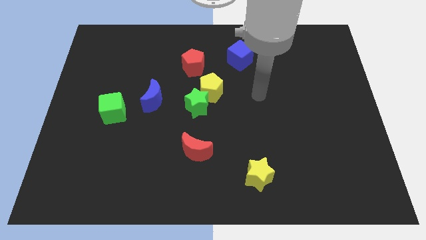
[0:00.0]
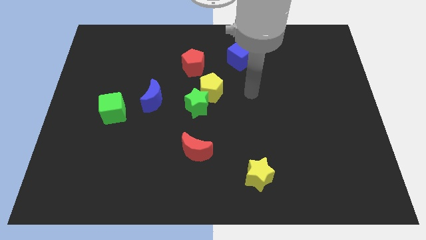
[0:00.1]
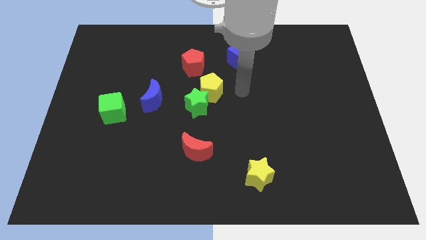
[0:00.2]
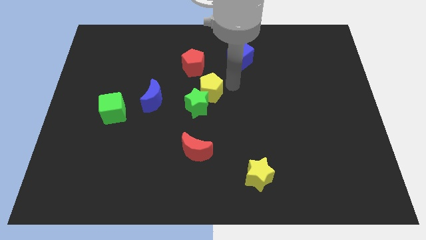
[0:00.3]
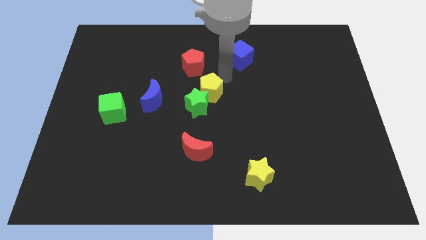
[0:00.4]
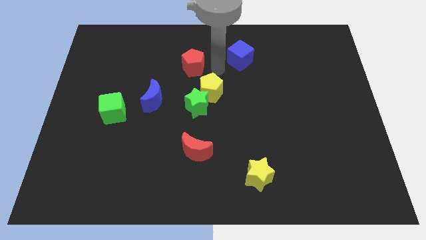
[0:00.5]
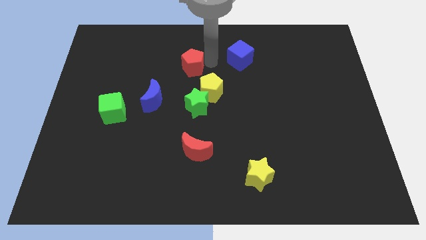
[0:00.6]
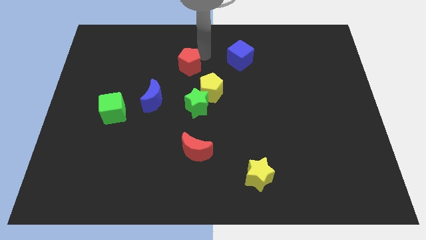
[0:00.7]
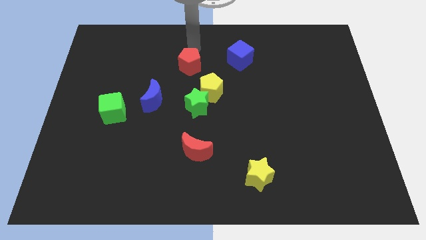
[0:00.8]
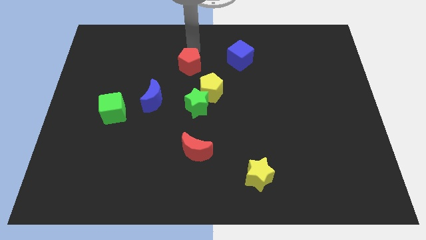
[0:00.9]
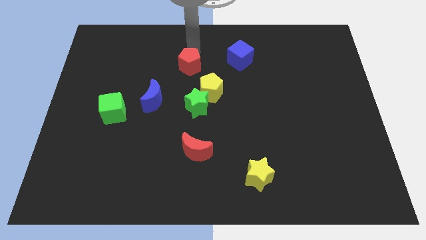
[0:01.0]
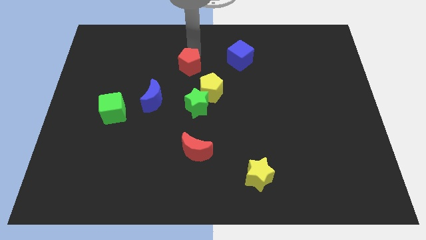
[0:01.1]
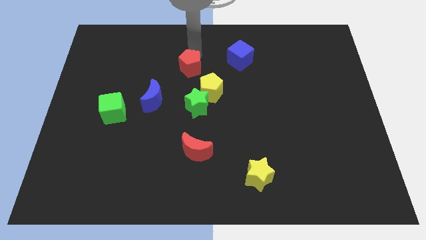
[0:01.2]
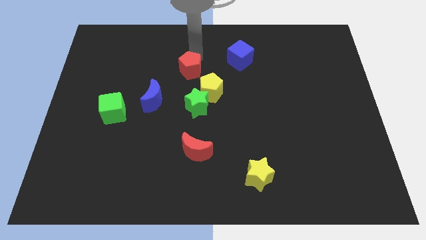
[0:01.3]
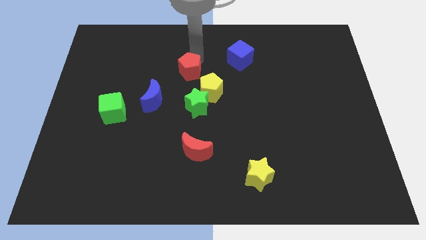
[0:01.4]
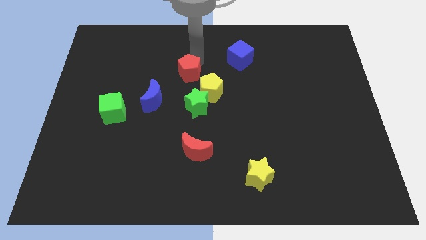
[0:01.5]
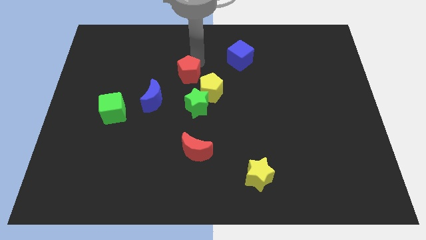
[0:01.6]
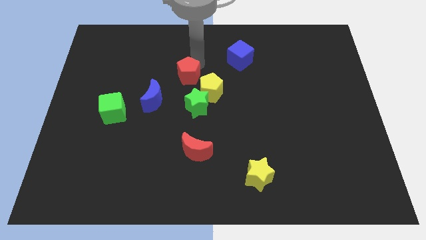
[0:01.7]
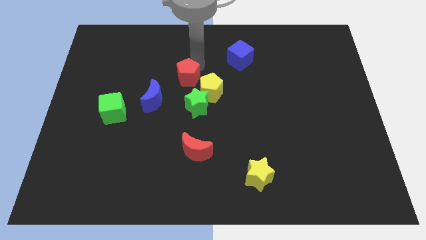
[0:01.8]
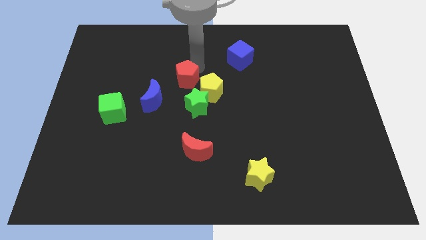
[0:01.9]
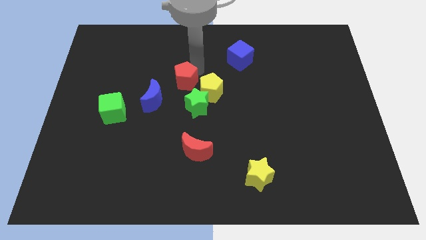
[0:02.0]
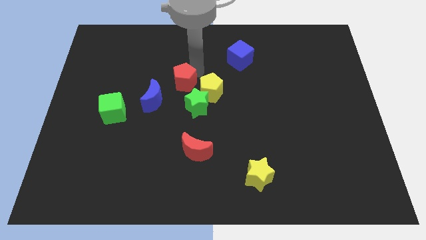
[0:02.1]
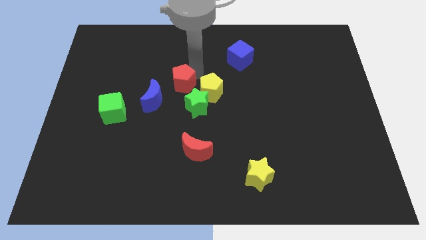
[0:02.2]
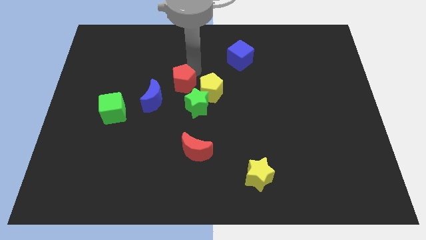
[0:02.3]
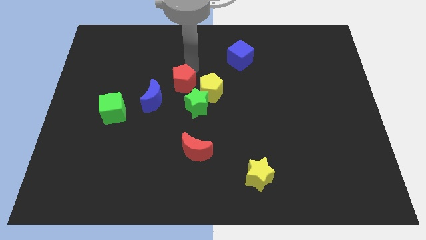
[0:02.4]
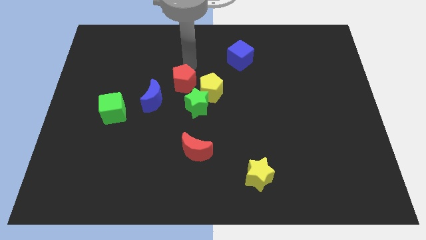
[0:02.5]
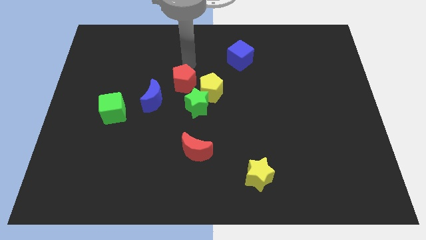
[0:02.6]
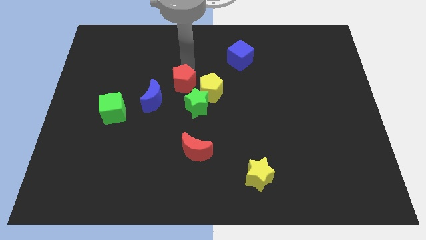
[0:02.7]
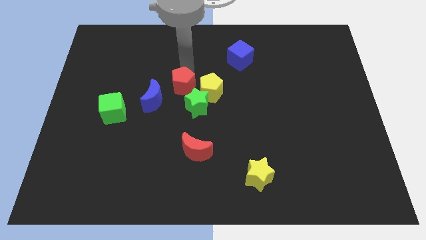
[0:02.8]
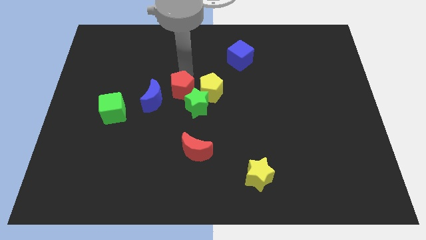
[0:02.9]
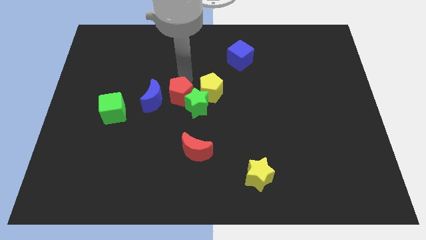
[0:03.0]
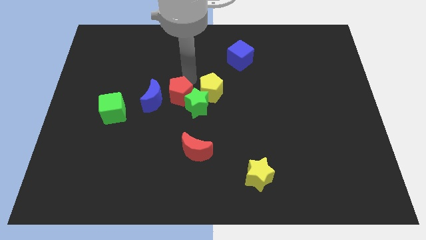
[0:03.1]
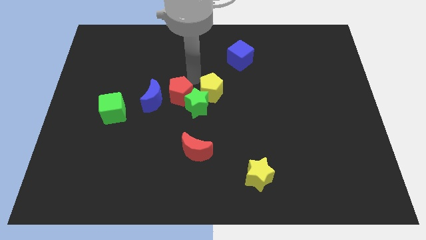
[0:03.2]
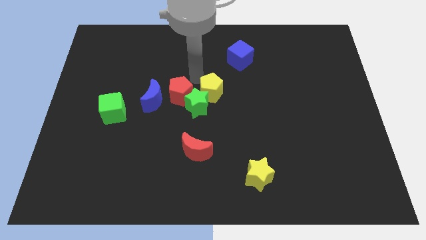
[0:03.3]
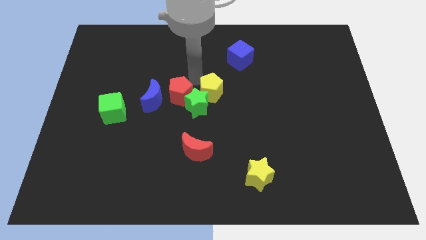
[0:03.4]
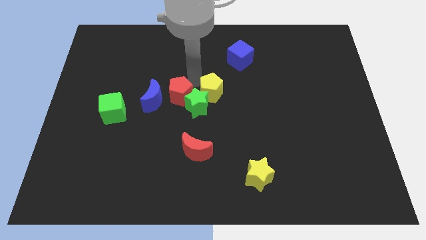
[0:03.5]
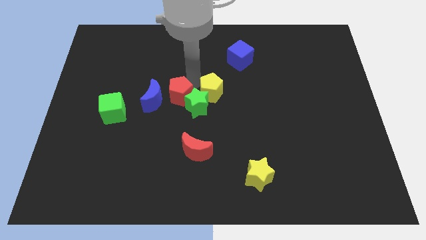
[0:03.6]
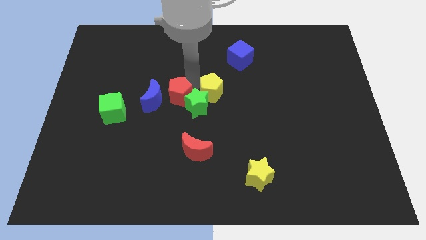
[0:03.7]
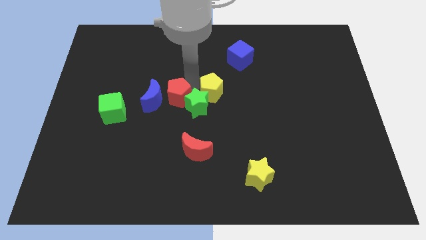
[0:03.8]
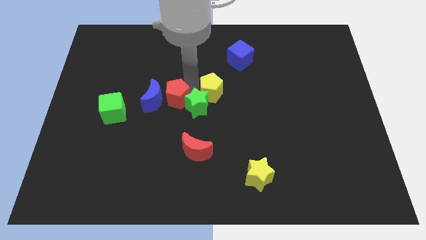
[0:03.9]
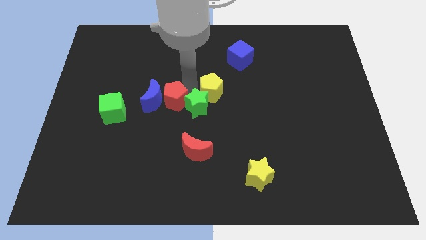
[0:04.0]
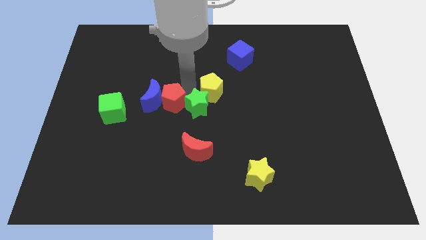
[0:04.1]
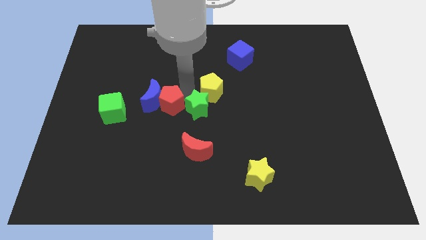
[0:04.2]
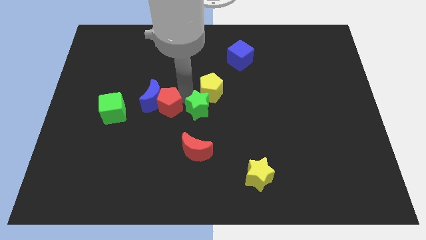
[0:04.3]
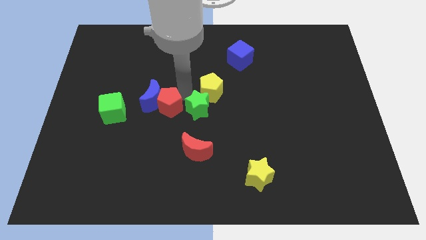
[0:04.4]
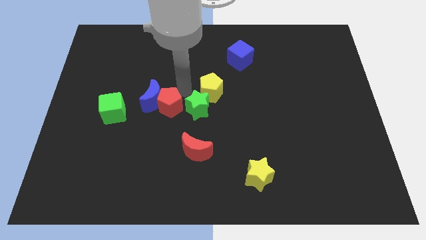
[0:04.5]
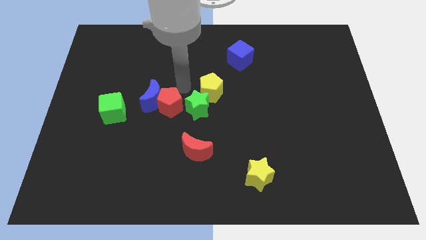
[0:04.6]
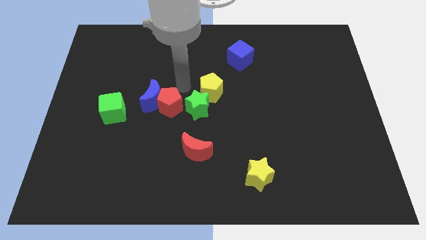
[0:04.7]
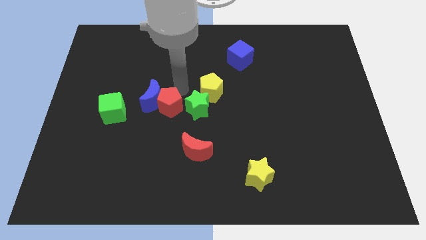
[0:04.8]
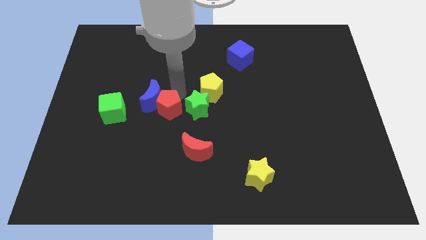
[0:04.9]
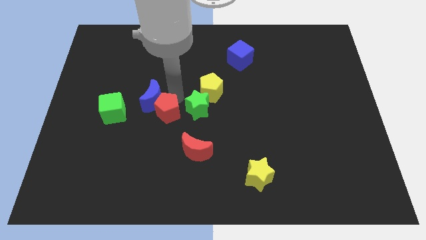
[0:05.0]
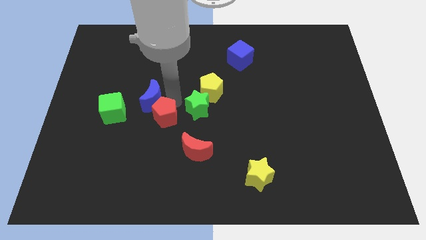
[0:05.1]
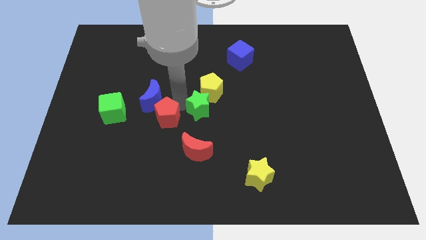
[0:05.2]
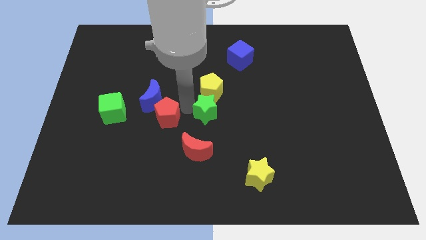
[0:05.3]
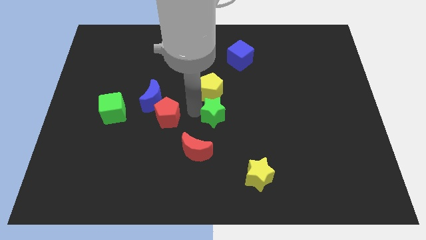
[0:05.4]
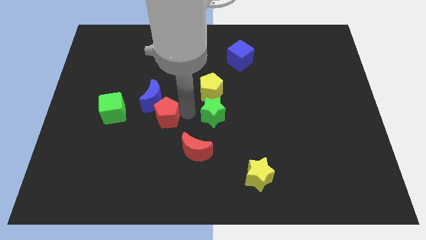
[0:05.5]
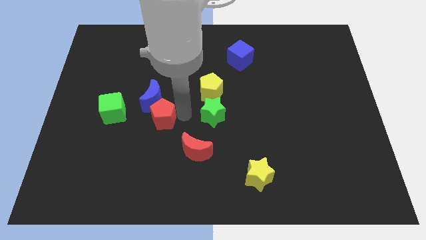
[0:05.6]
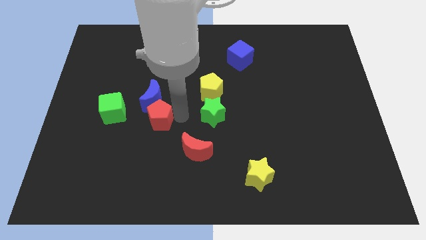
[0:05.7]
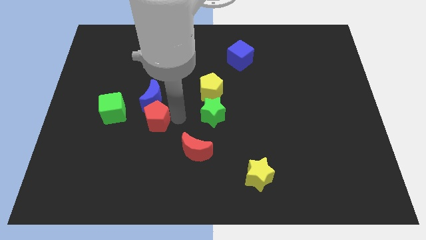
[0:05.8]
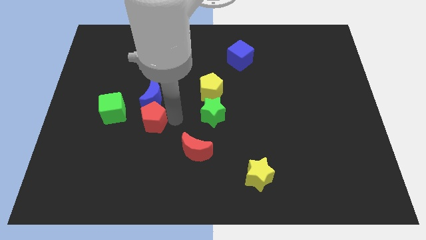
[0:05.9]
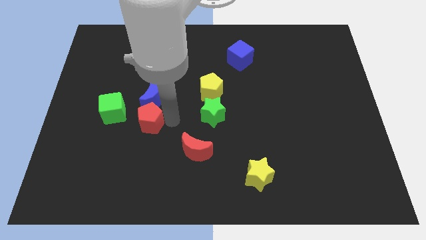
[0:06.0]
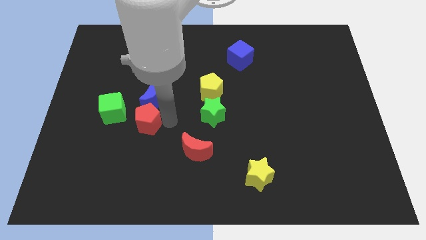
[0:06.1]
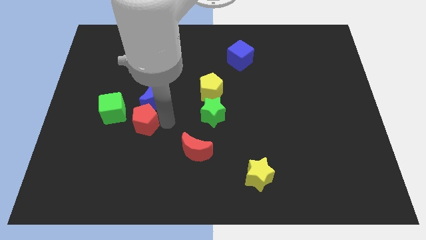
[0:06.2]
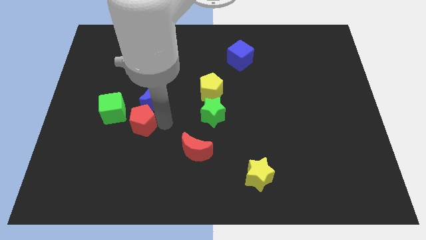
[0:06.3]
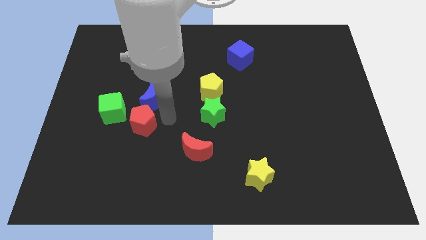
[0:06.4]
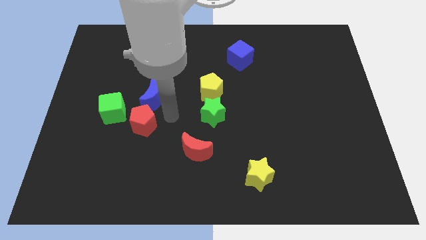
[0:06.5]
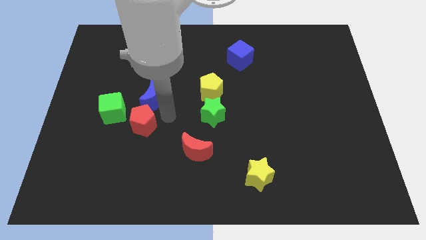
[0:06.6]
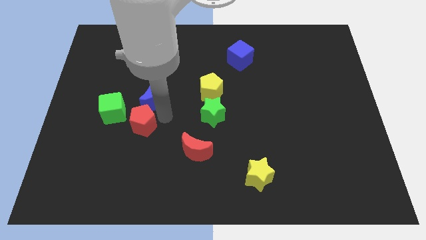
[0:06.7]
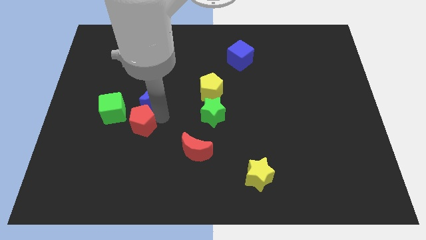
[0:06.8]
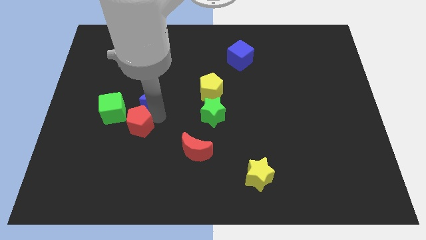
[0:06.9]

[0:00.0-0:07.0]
slide the red pentagon down and to the left

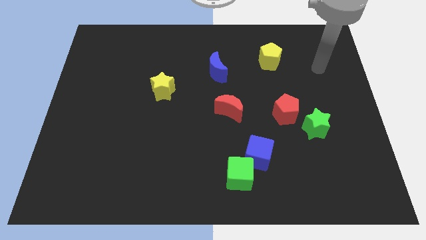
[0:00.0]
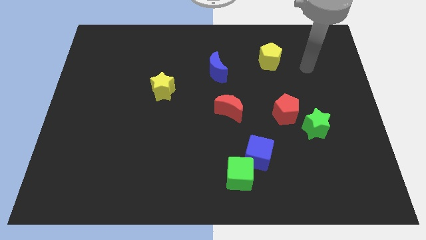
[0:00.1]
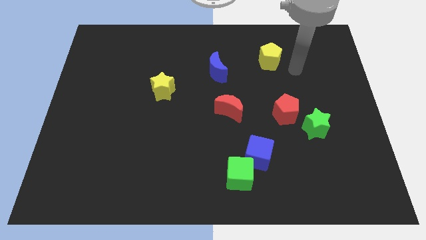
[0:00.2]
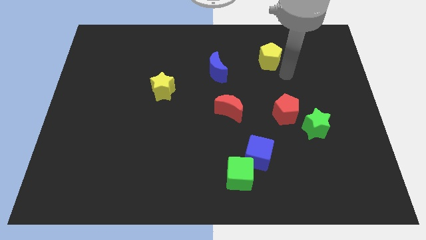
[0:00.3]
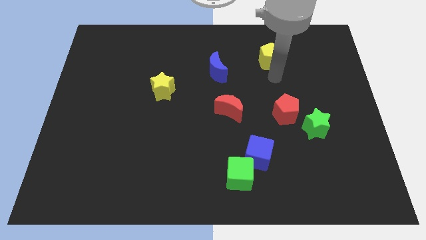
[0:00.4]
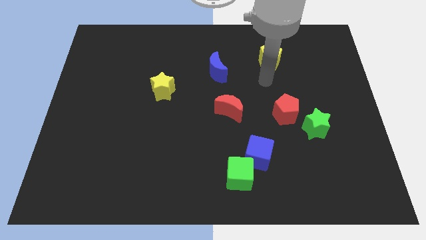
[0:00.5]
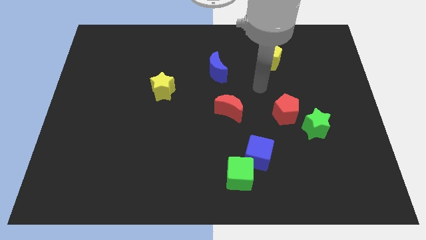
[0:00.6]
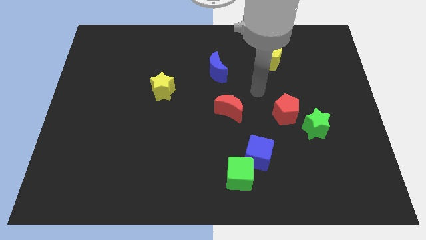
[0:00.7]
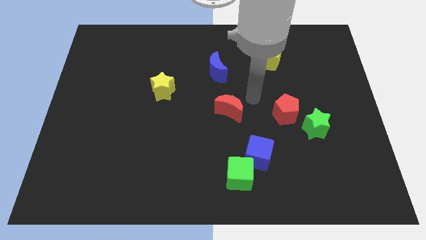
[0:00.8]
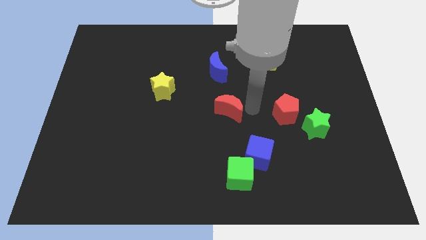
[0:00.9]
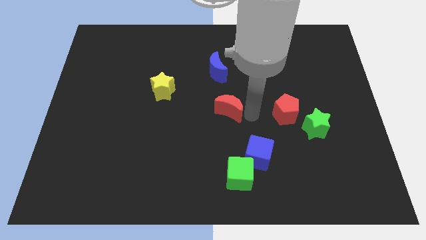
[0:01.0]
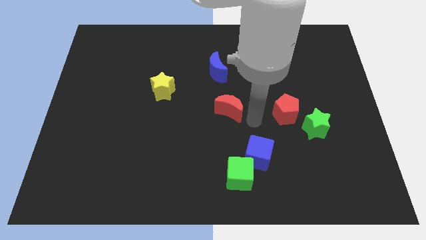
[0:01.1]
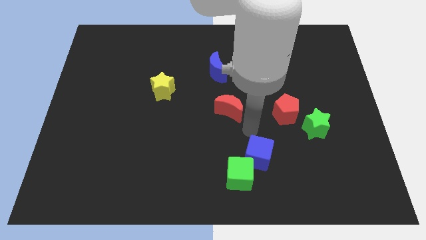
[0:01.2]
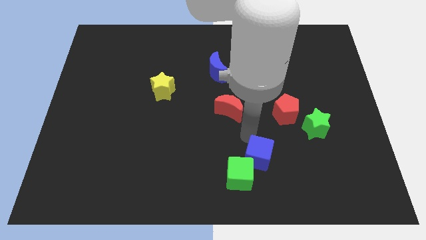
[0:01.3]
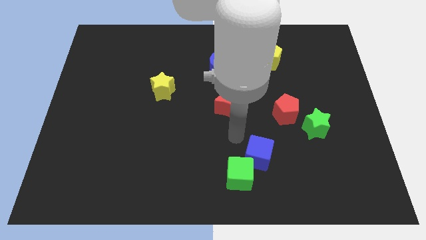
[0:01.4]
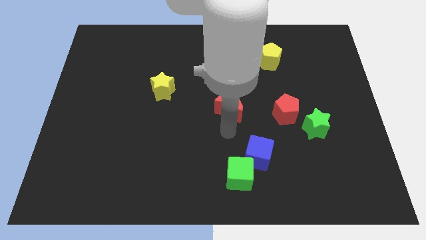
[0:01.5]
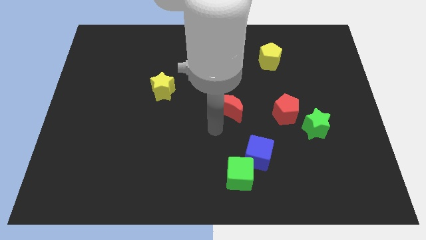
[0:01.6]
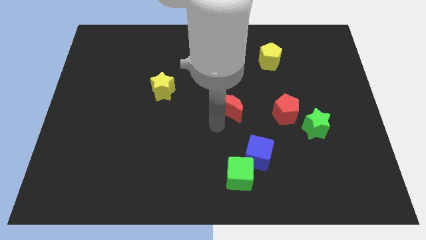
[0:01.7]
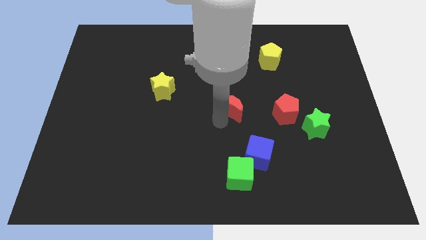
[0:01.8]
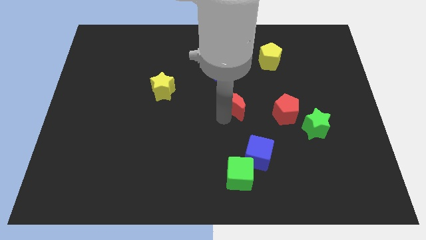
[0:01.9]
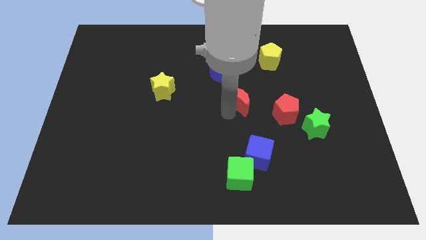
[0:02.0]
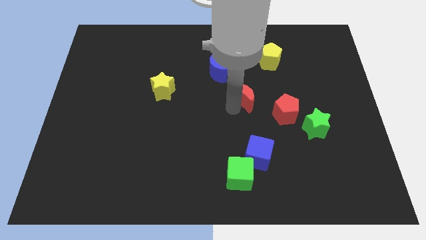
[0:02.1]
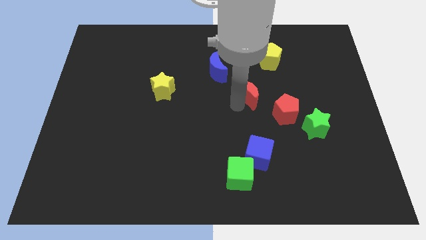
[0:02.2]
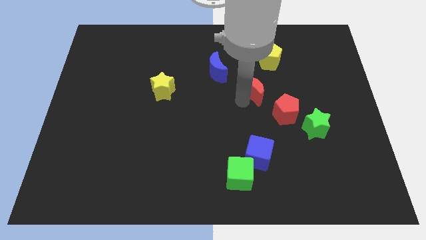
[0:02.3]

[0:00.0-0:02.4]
move the red moon a bit upwards and to the right diagonally
